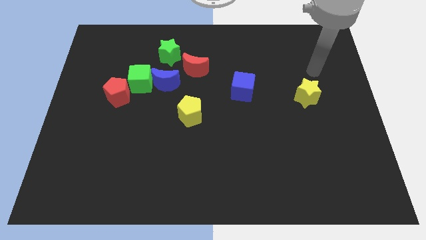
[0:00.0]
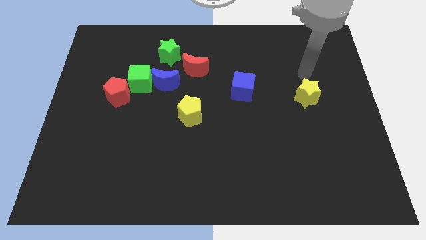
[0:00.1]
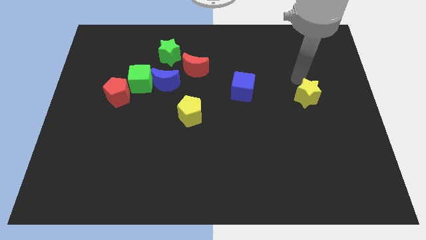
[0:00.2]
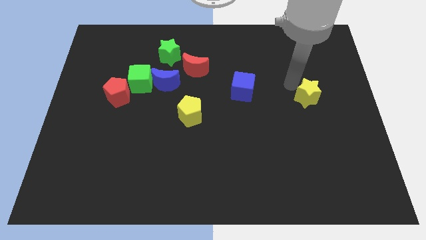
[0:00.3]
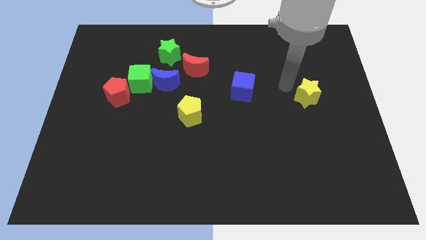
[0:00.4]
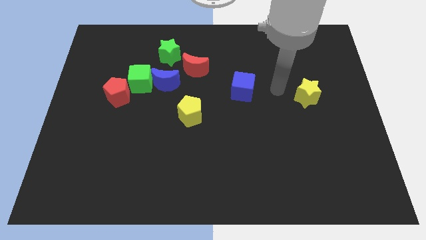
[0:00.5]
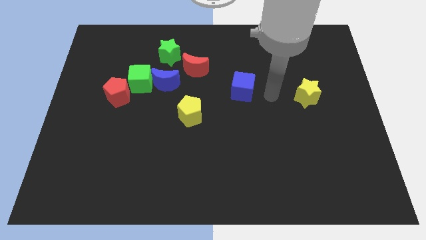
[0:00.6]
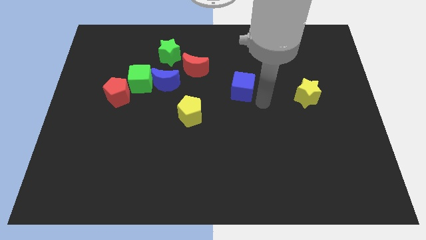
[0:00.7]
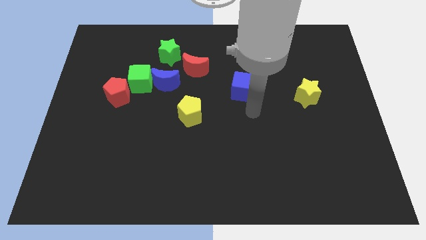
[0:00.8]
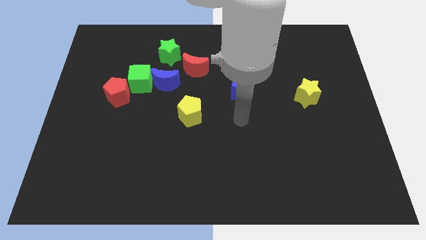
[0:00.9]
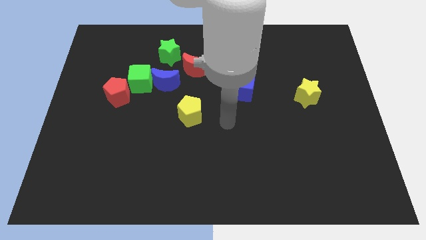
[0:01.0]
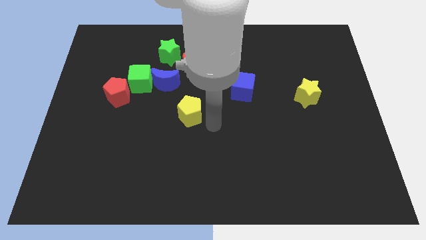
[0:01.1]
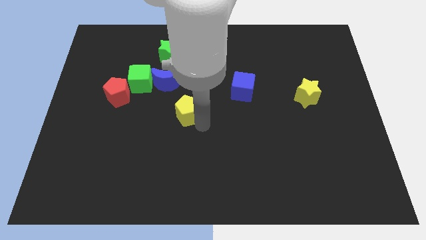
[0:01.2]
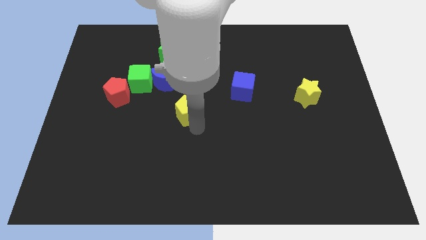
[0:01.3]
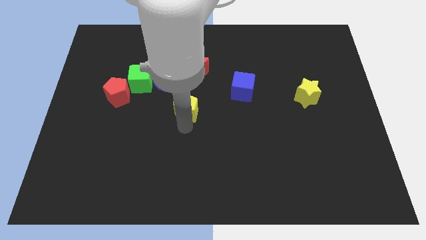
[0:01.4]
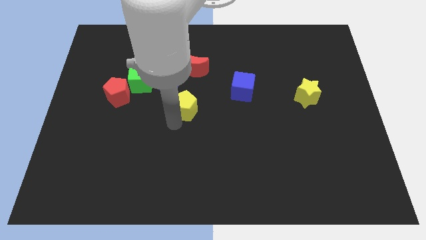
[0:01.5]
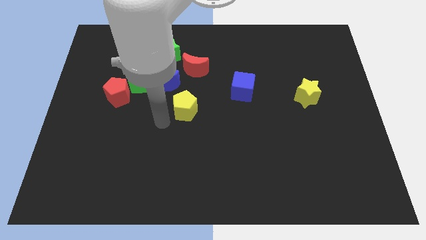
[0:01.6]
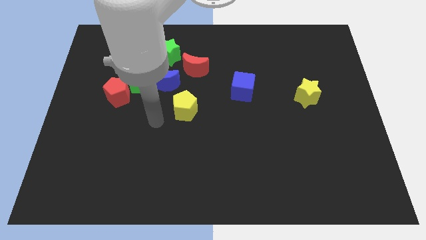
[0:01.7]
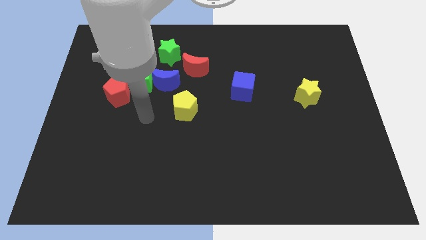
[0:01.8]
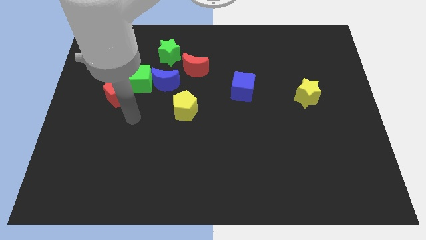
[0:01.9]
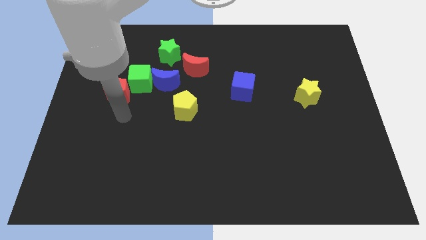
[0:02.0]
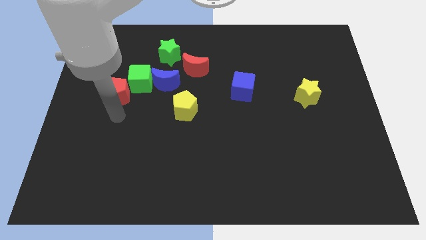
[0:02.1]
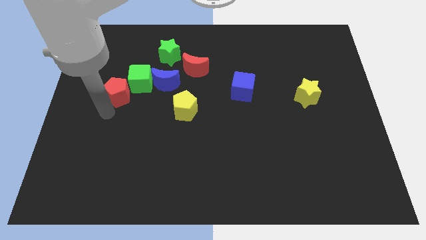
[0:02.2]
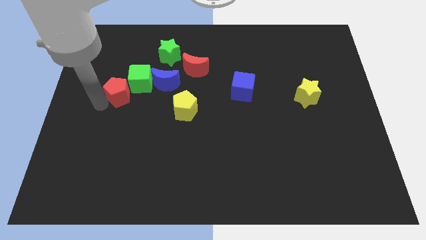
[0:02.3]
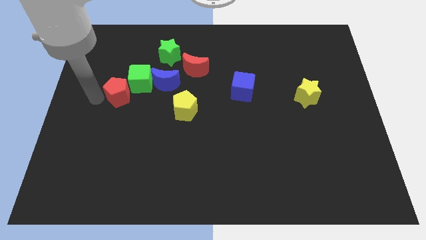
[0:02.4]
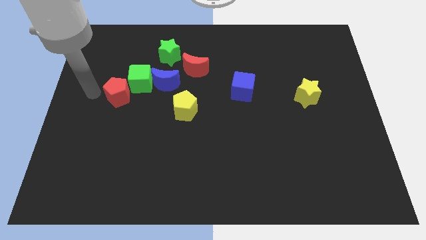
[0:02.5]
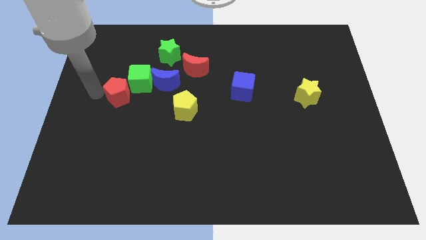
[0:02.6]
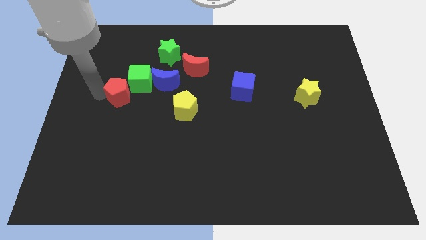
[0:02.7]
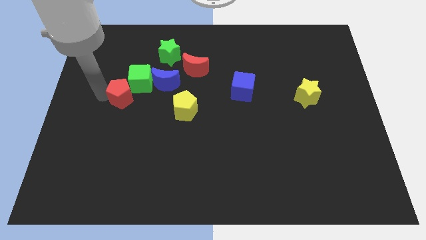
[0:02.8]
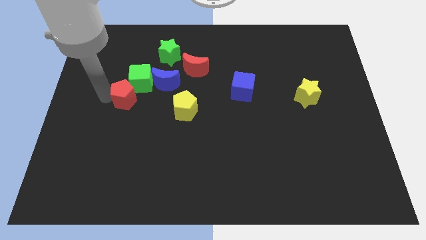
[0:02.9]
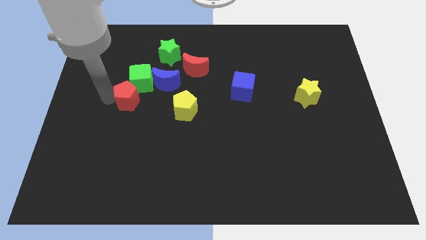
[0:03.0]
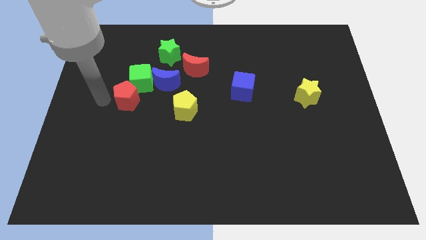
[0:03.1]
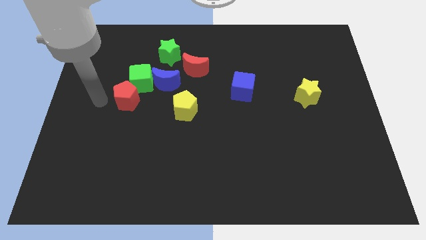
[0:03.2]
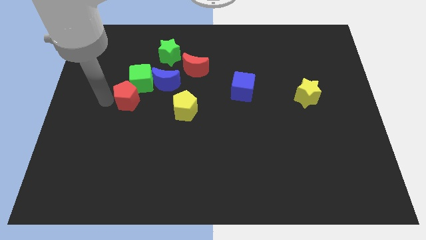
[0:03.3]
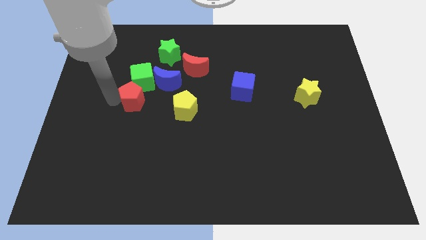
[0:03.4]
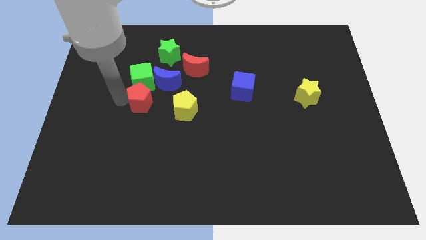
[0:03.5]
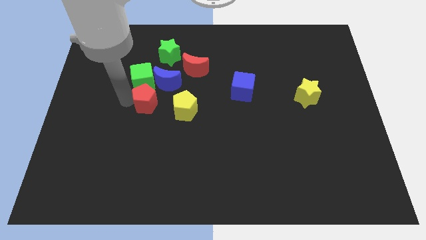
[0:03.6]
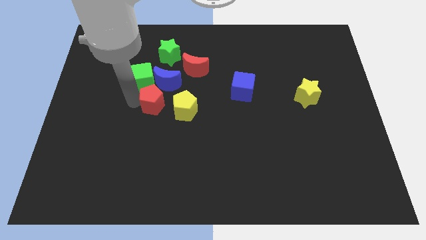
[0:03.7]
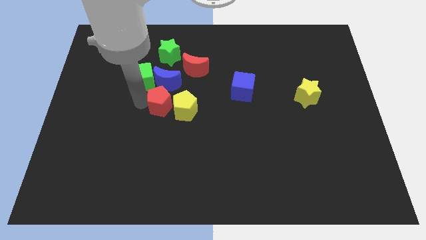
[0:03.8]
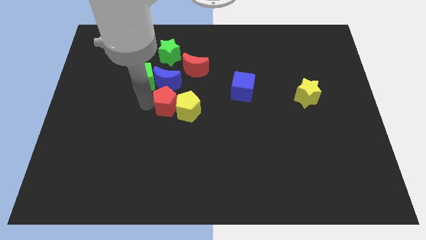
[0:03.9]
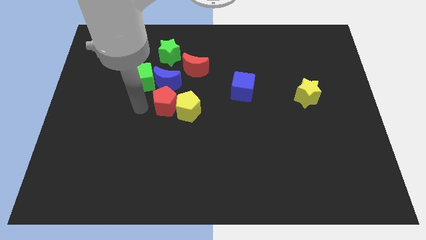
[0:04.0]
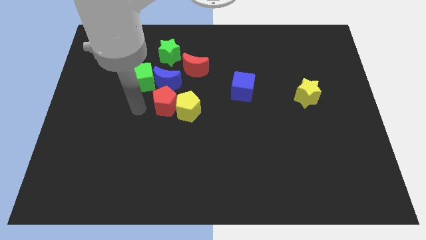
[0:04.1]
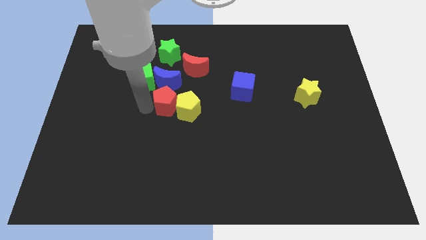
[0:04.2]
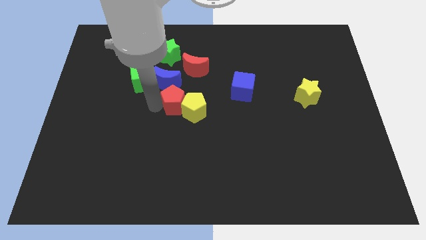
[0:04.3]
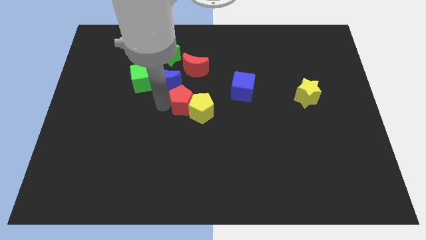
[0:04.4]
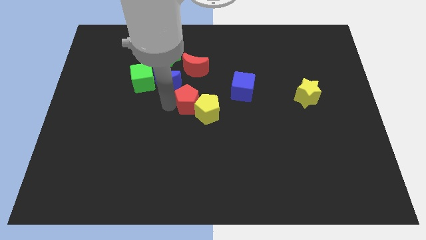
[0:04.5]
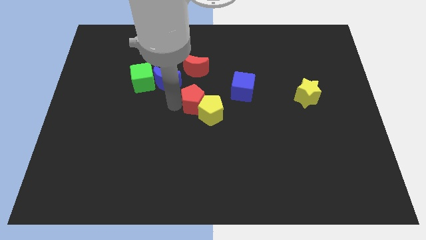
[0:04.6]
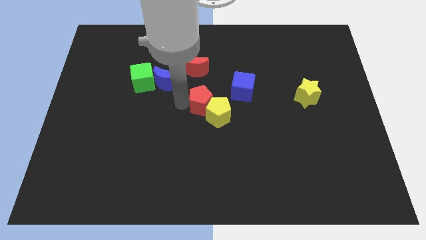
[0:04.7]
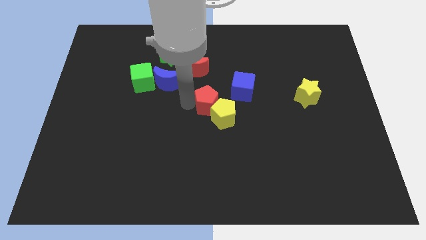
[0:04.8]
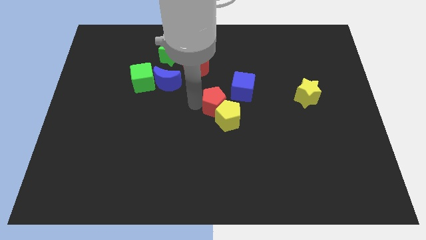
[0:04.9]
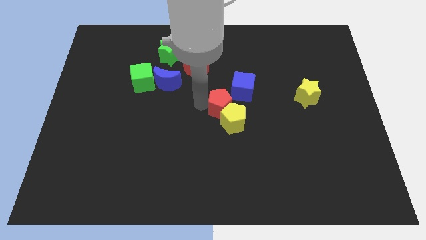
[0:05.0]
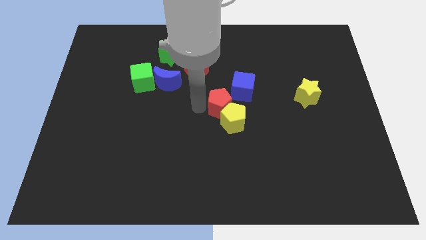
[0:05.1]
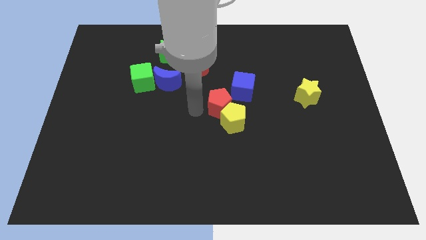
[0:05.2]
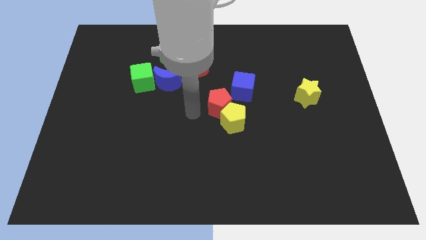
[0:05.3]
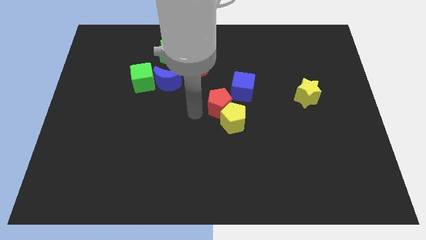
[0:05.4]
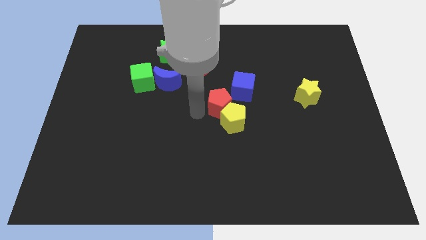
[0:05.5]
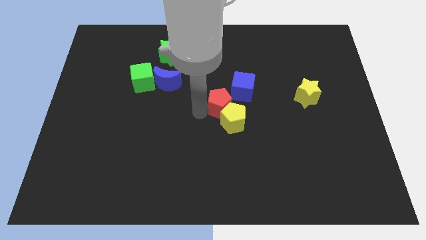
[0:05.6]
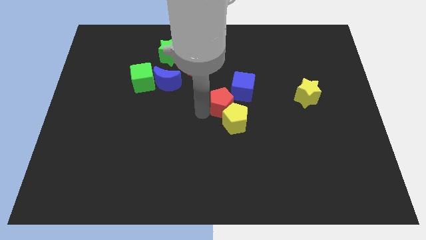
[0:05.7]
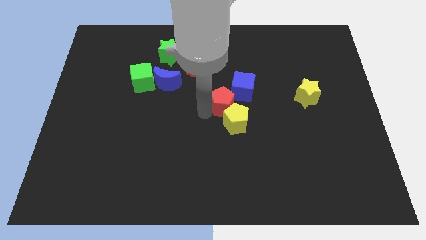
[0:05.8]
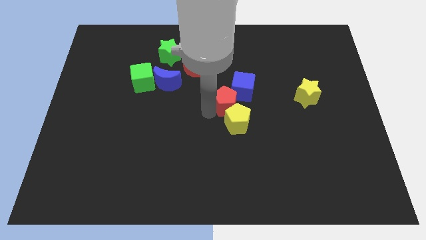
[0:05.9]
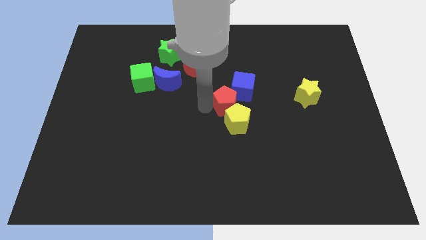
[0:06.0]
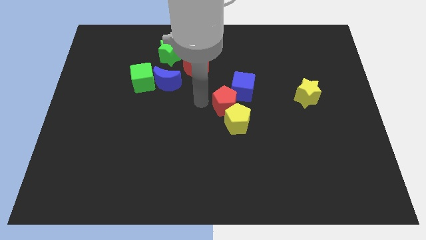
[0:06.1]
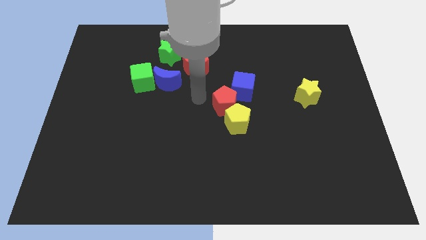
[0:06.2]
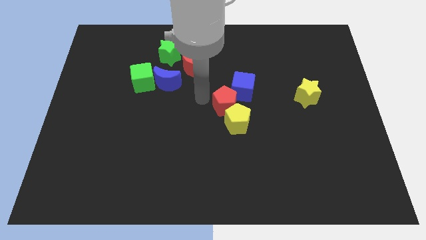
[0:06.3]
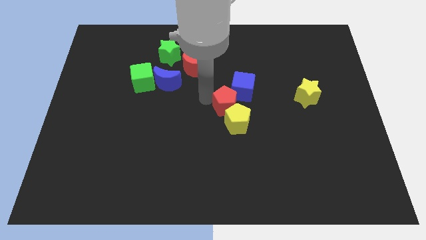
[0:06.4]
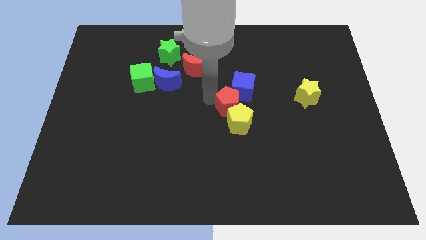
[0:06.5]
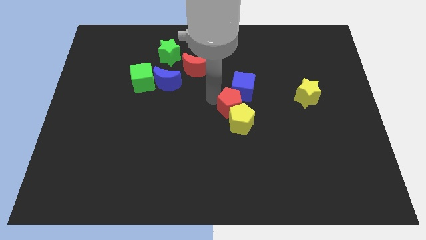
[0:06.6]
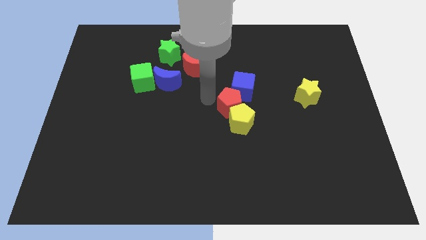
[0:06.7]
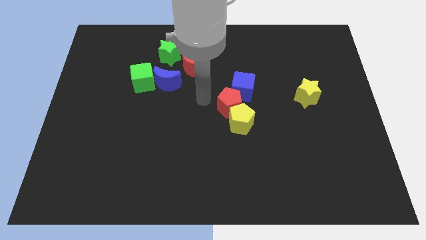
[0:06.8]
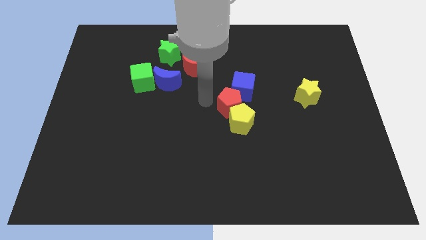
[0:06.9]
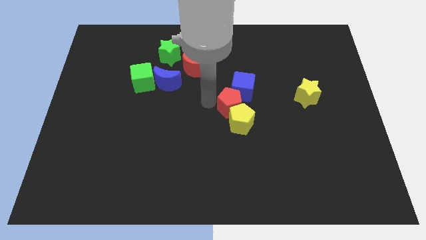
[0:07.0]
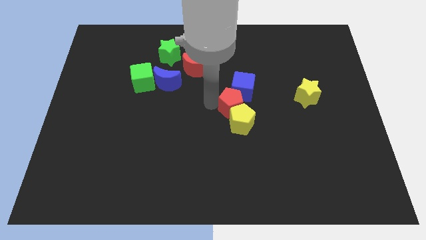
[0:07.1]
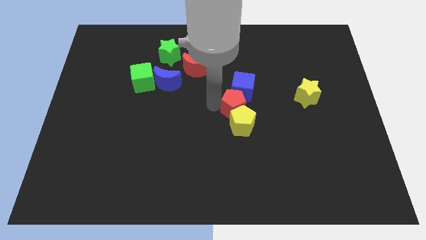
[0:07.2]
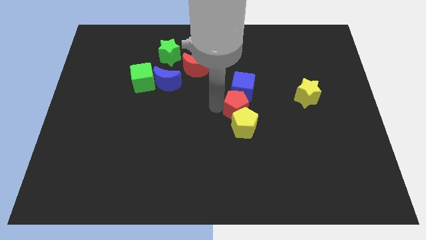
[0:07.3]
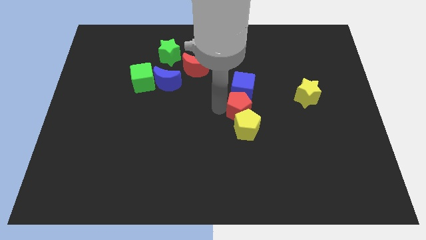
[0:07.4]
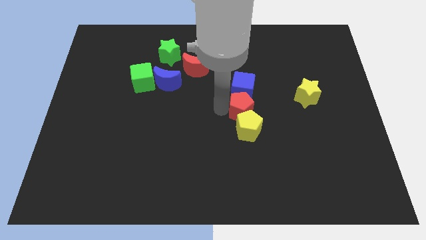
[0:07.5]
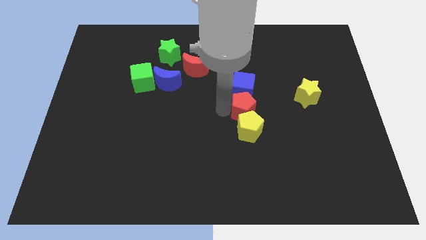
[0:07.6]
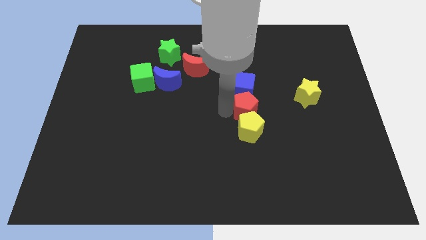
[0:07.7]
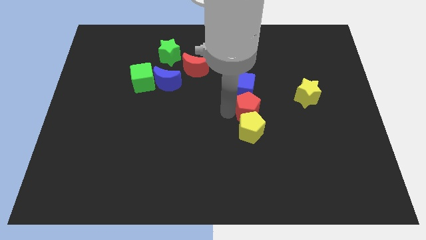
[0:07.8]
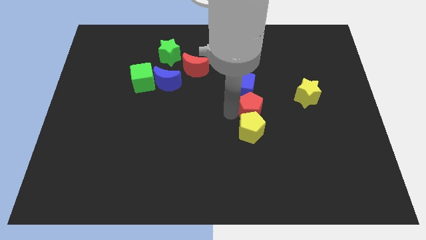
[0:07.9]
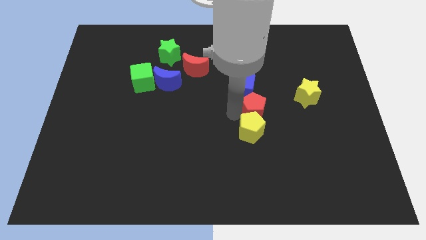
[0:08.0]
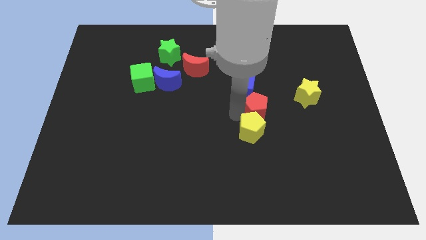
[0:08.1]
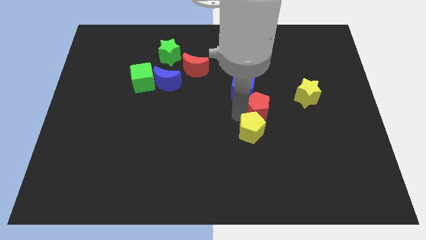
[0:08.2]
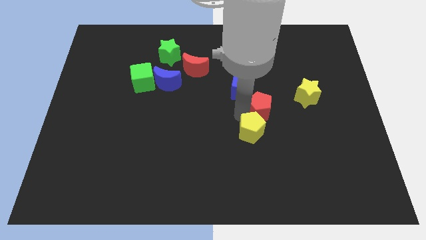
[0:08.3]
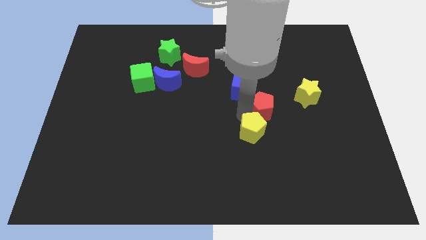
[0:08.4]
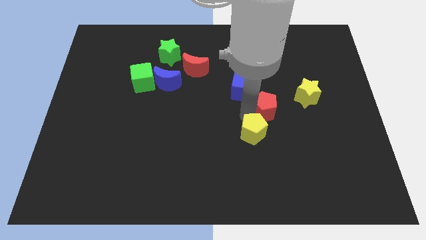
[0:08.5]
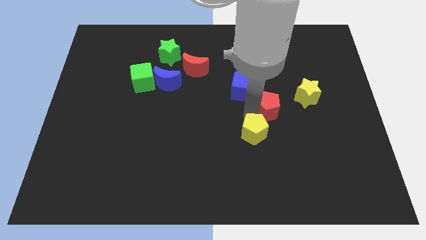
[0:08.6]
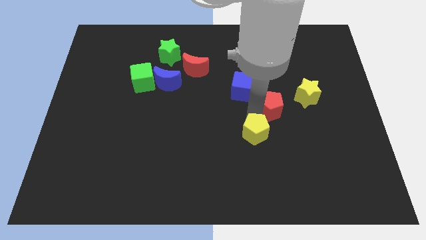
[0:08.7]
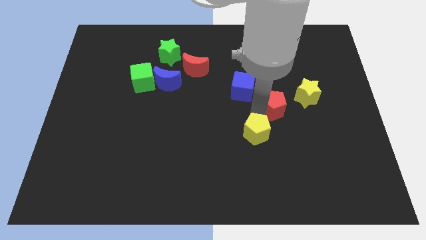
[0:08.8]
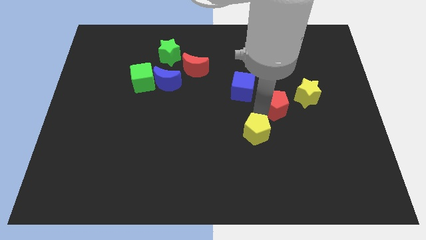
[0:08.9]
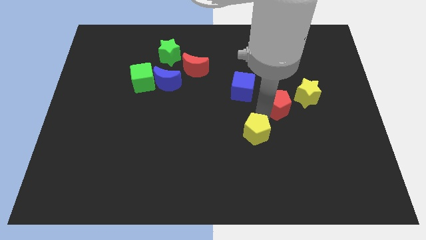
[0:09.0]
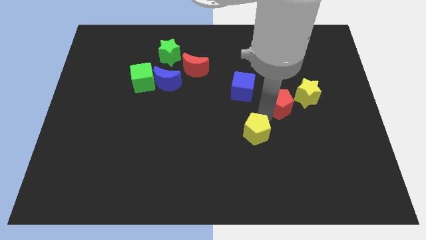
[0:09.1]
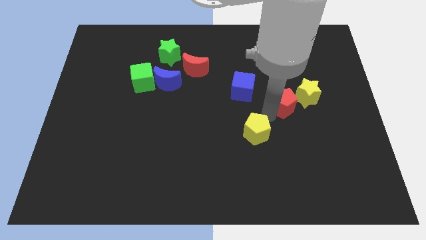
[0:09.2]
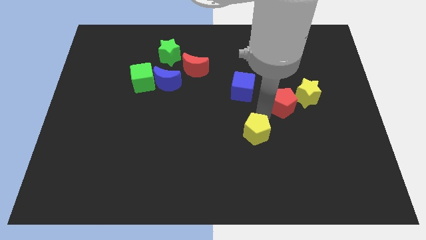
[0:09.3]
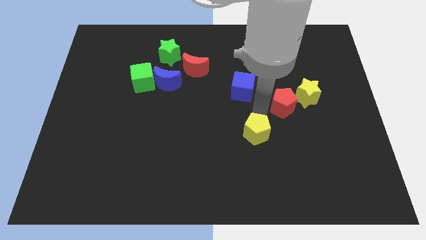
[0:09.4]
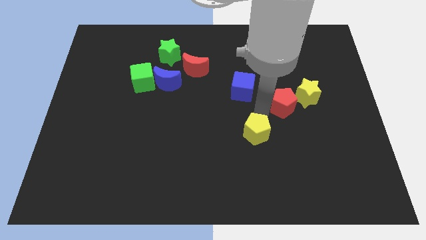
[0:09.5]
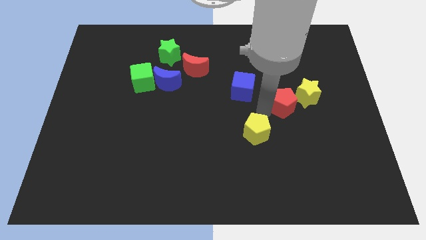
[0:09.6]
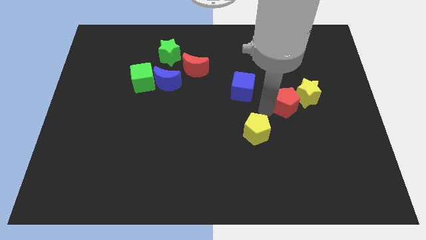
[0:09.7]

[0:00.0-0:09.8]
push the red pentagon close to the yellow star
